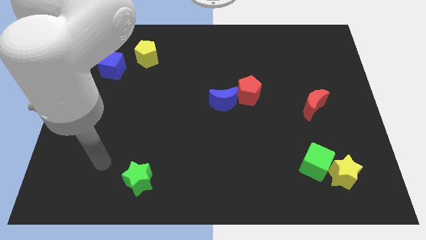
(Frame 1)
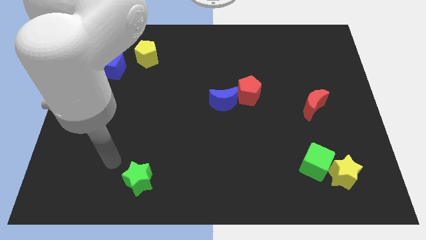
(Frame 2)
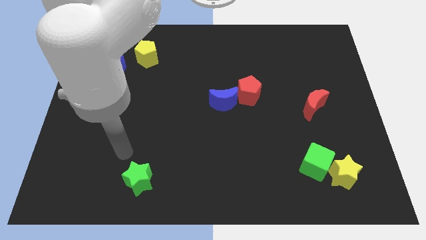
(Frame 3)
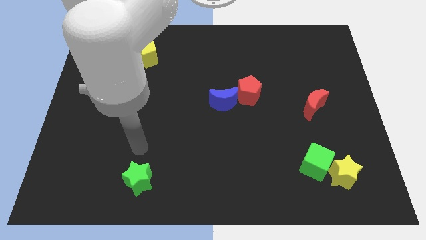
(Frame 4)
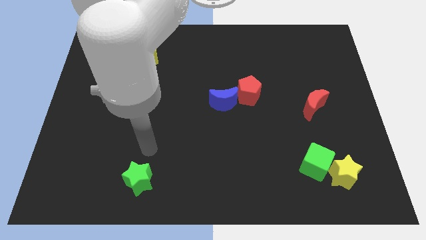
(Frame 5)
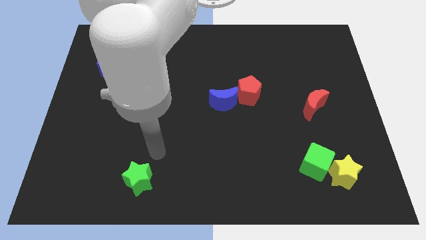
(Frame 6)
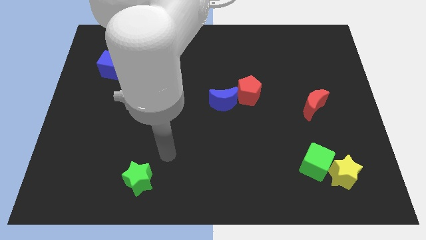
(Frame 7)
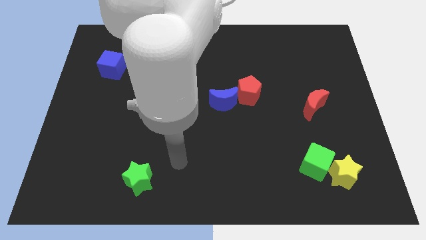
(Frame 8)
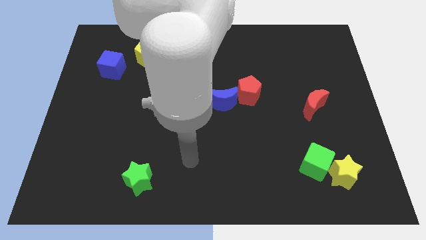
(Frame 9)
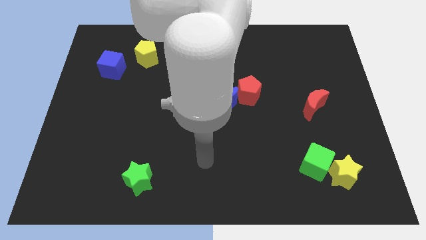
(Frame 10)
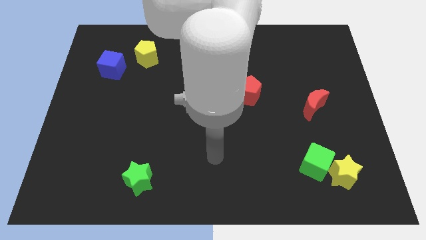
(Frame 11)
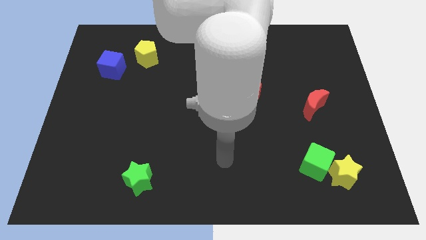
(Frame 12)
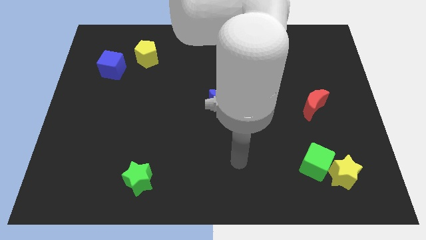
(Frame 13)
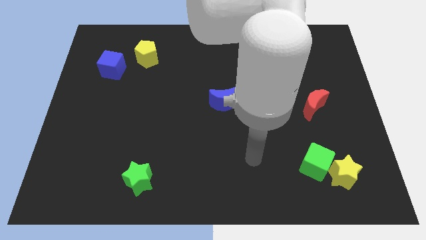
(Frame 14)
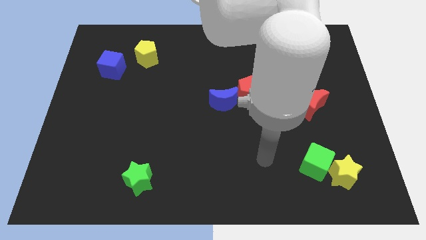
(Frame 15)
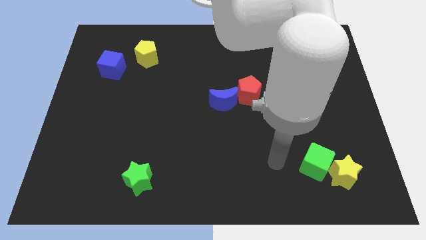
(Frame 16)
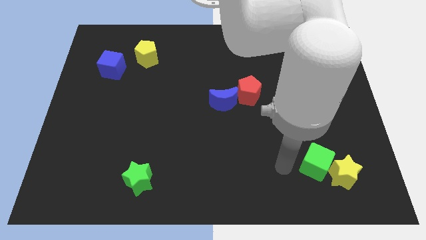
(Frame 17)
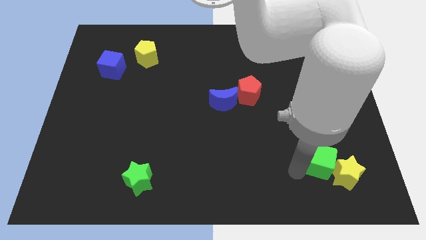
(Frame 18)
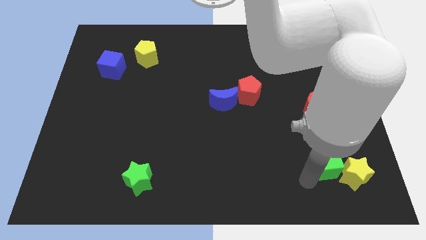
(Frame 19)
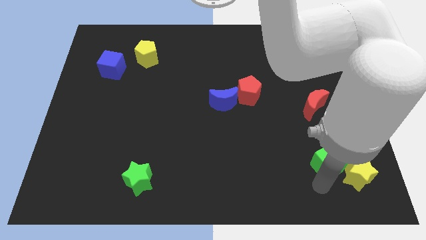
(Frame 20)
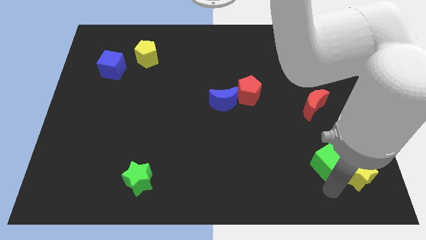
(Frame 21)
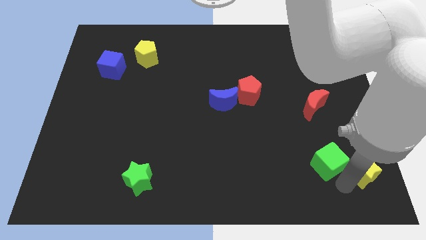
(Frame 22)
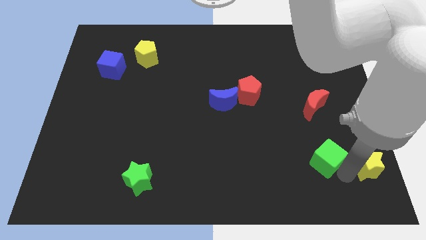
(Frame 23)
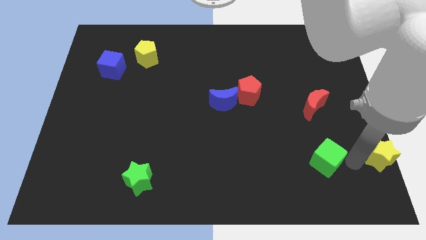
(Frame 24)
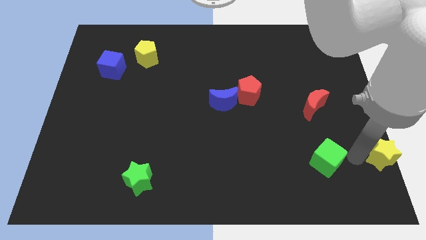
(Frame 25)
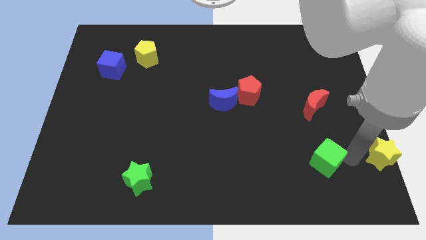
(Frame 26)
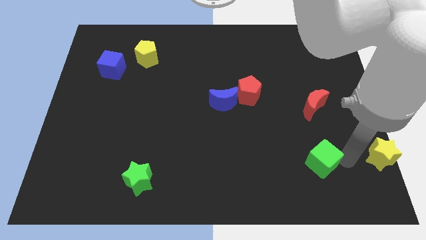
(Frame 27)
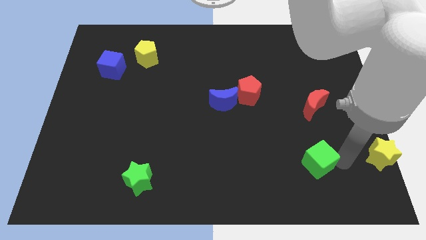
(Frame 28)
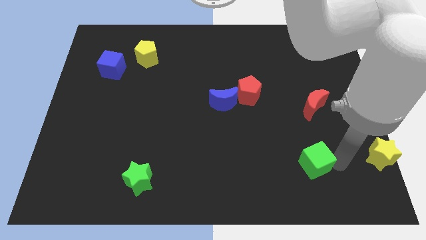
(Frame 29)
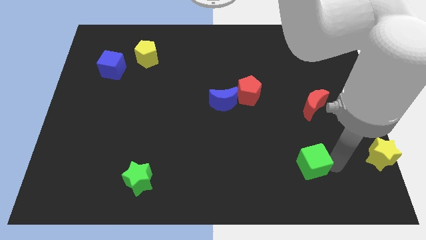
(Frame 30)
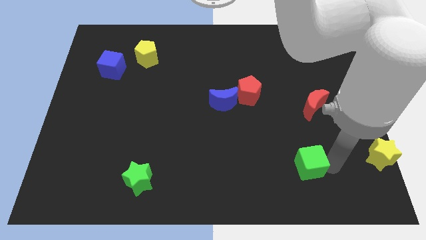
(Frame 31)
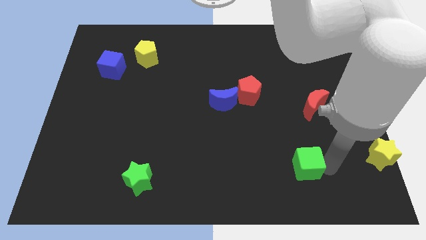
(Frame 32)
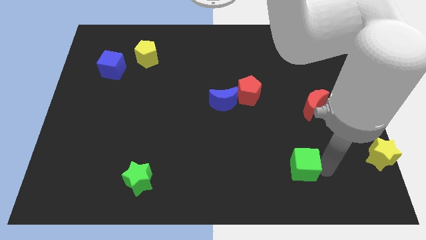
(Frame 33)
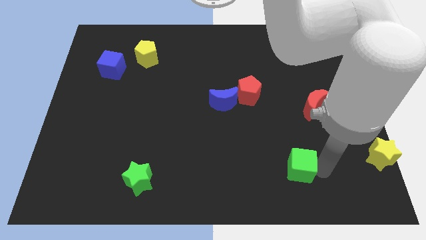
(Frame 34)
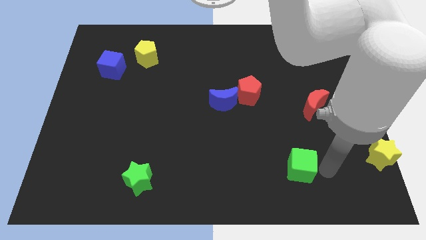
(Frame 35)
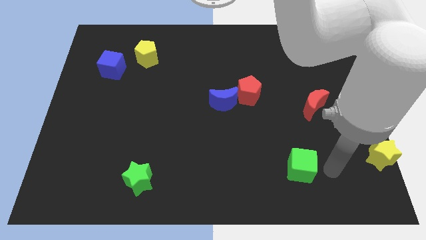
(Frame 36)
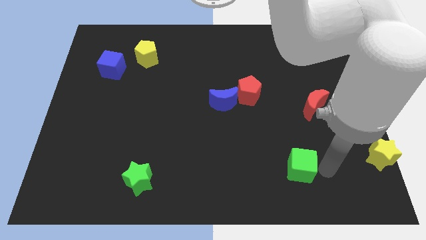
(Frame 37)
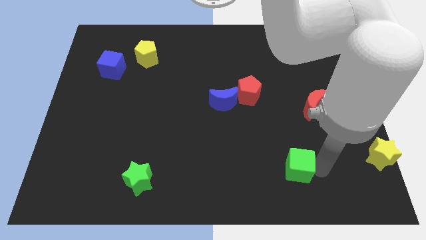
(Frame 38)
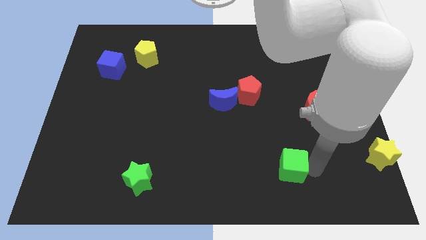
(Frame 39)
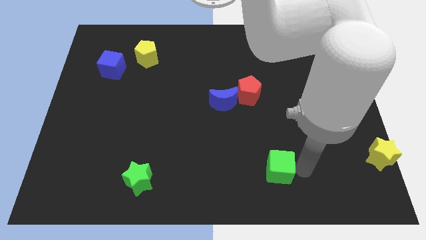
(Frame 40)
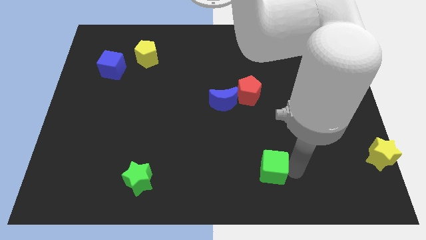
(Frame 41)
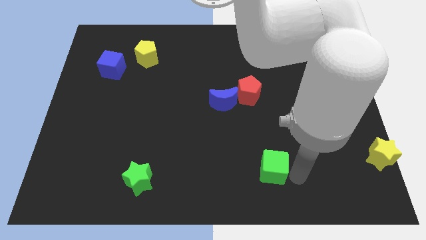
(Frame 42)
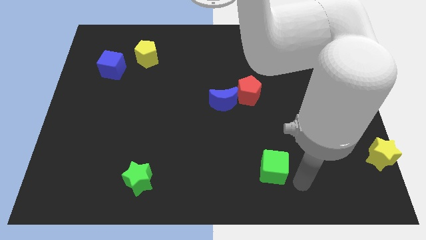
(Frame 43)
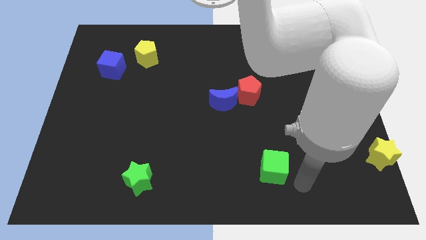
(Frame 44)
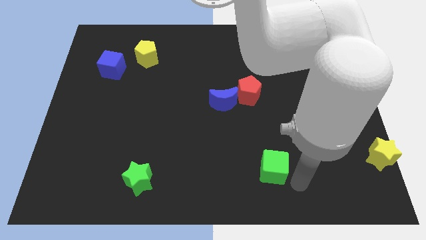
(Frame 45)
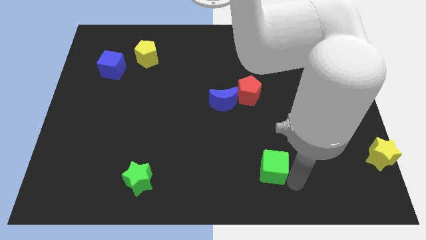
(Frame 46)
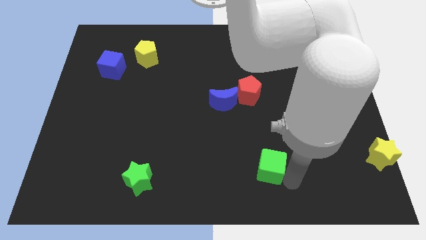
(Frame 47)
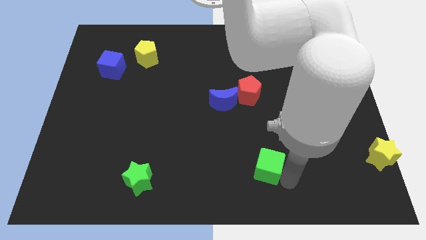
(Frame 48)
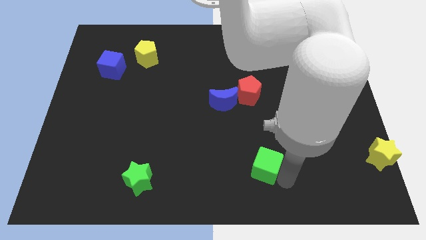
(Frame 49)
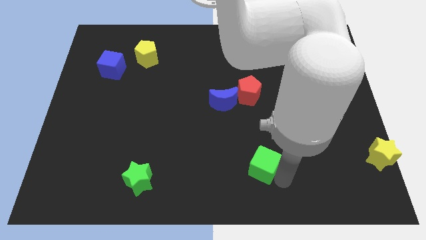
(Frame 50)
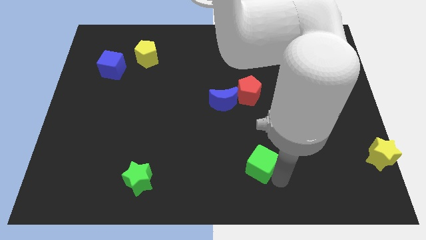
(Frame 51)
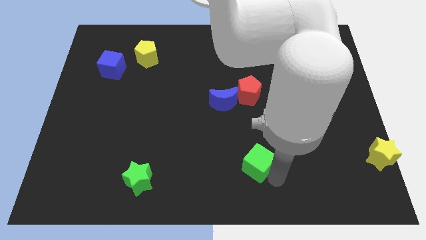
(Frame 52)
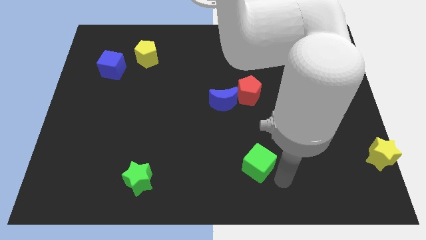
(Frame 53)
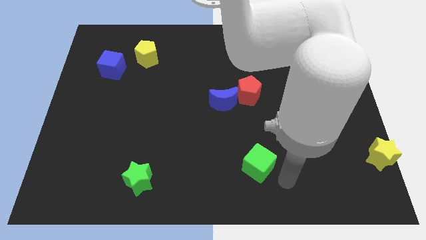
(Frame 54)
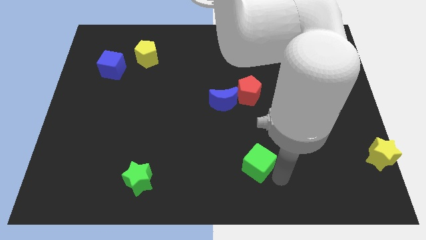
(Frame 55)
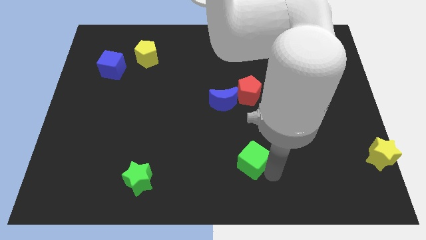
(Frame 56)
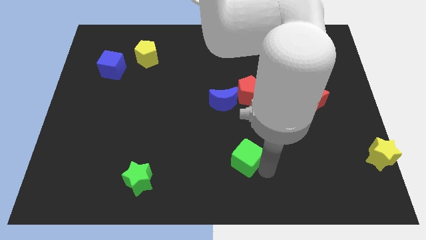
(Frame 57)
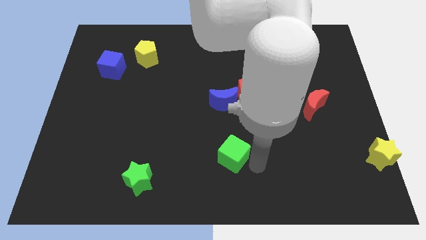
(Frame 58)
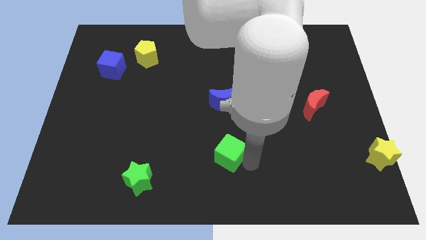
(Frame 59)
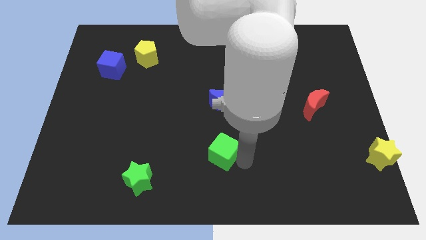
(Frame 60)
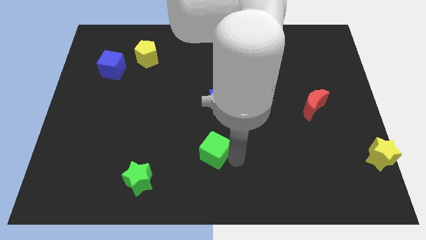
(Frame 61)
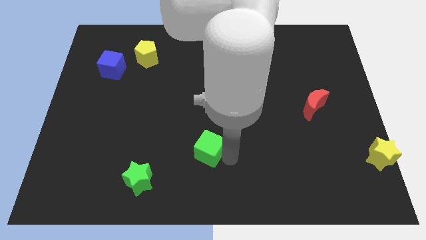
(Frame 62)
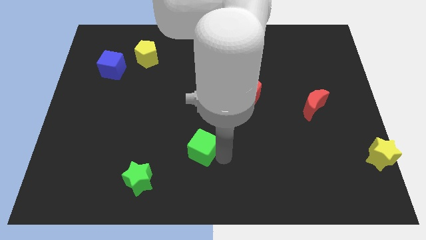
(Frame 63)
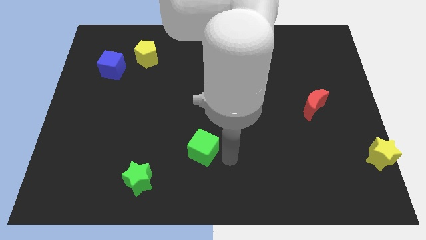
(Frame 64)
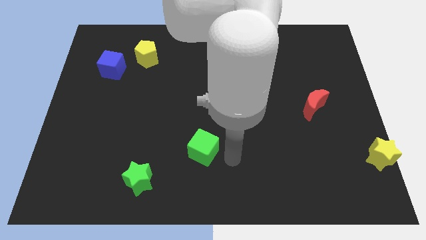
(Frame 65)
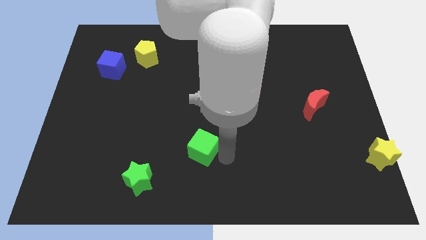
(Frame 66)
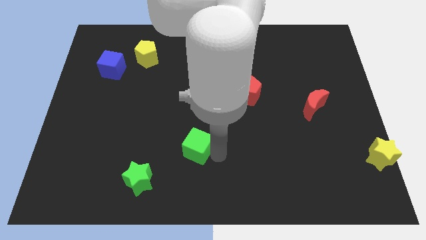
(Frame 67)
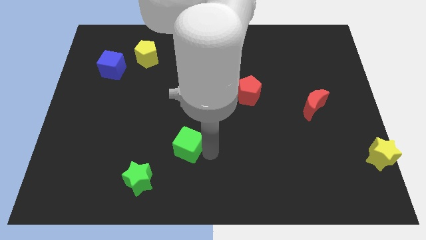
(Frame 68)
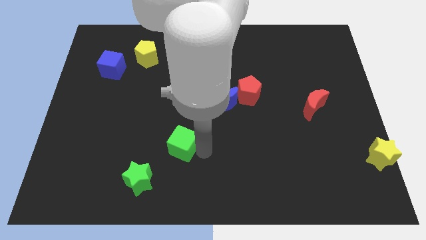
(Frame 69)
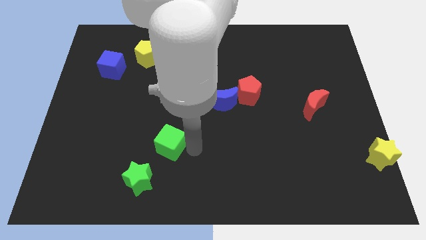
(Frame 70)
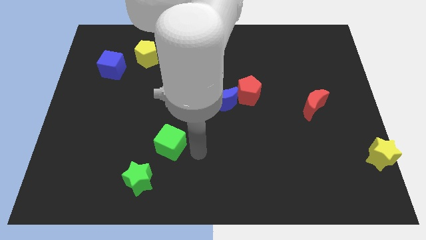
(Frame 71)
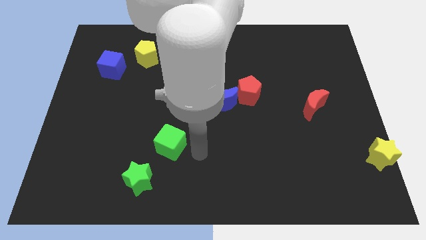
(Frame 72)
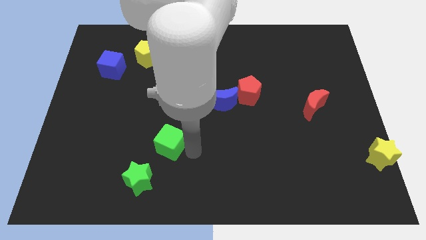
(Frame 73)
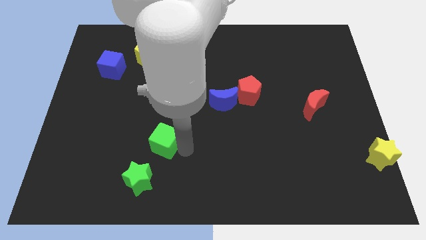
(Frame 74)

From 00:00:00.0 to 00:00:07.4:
push the green cube to the top of the green star
